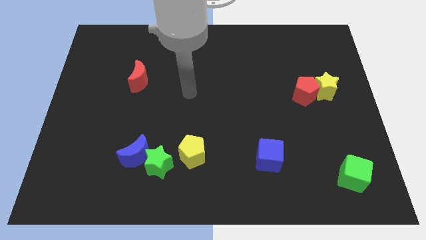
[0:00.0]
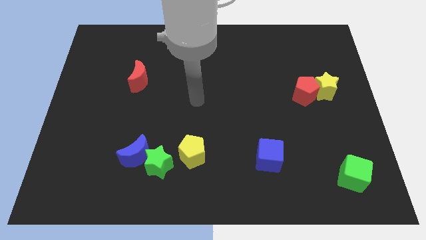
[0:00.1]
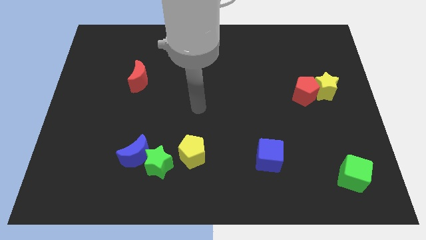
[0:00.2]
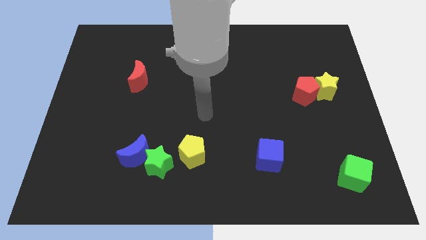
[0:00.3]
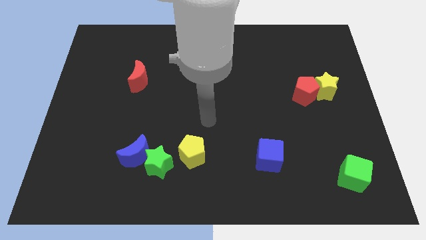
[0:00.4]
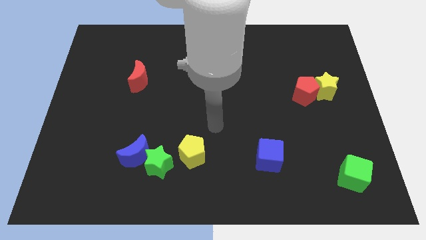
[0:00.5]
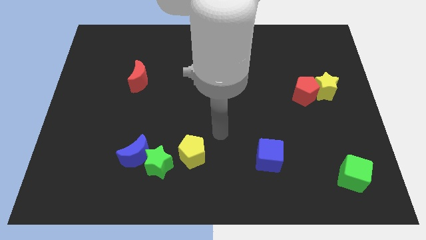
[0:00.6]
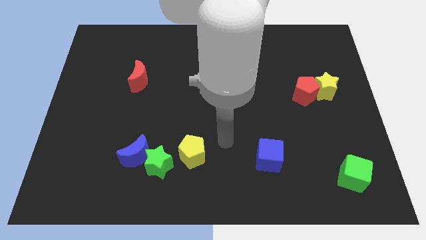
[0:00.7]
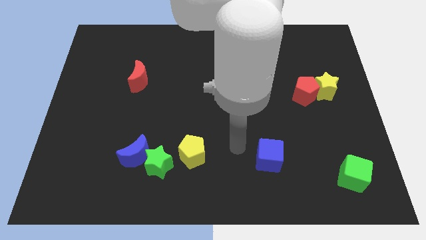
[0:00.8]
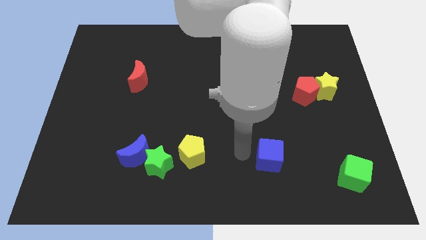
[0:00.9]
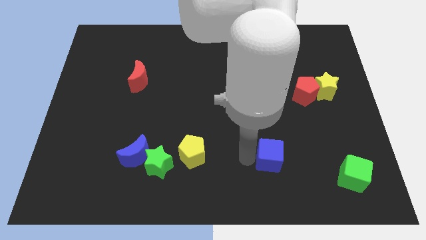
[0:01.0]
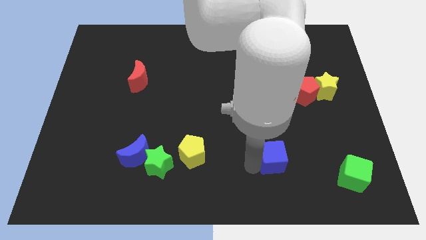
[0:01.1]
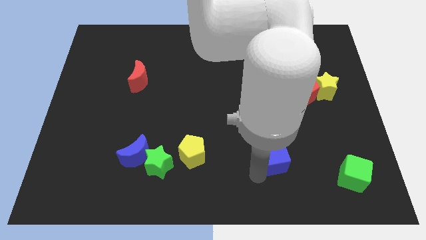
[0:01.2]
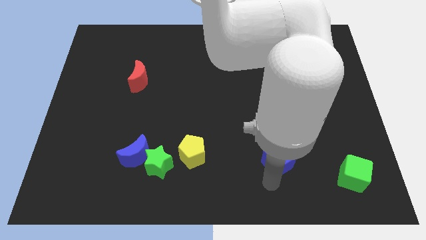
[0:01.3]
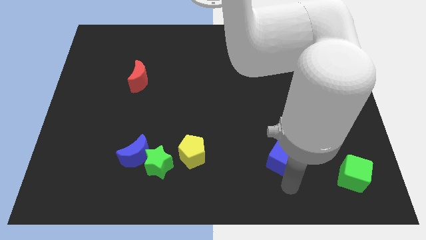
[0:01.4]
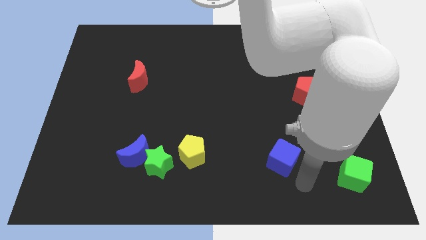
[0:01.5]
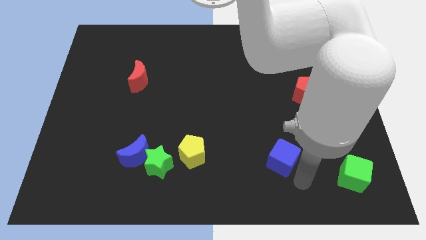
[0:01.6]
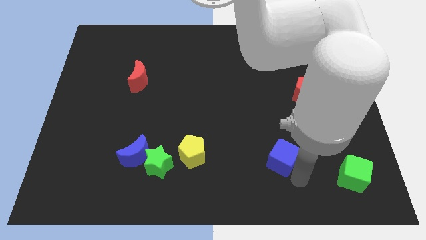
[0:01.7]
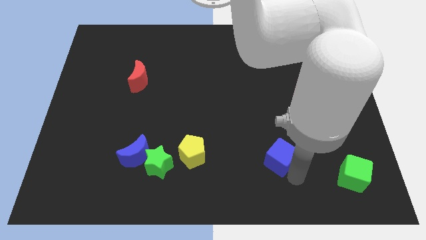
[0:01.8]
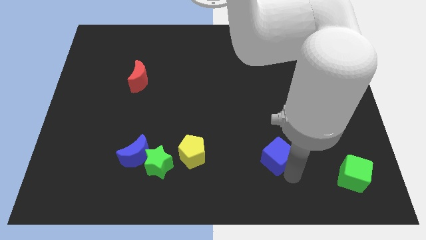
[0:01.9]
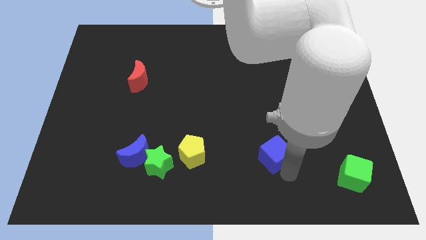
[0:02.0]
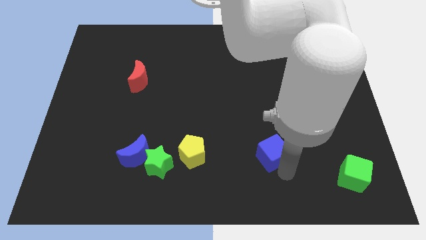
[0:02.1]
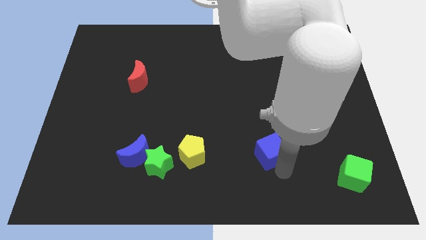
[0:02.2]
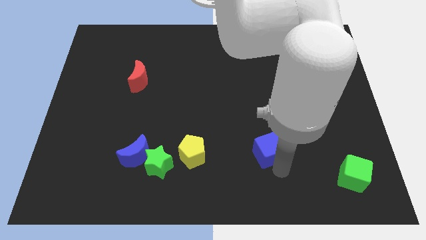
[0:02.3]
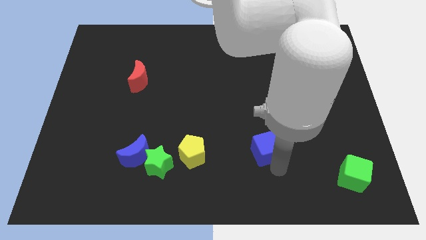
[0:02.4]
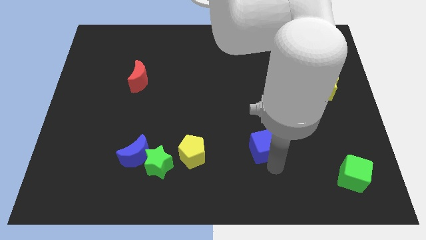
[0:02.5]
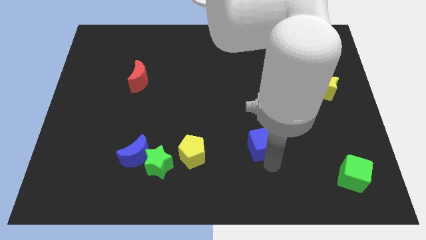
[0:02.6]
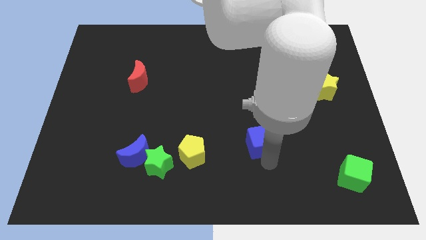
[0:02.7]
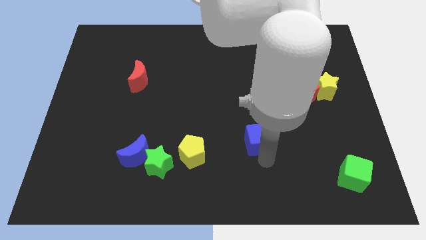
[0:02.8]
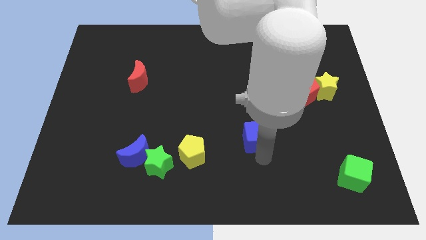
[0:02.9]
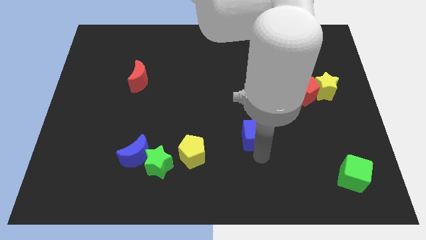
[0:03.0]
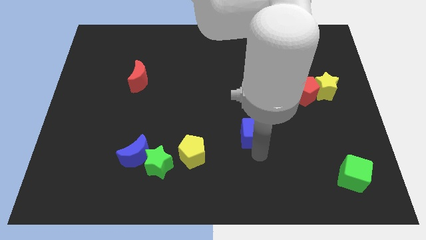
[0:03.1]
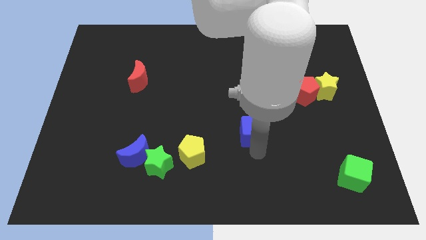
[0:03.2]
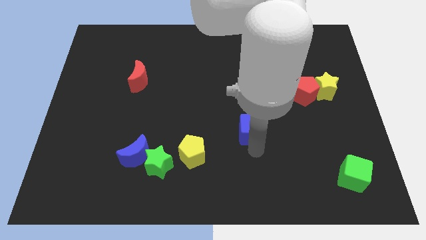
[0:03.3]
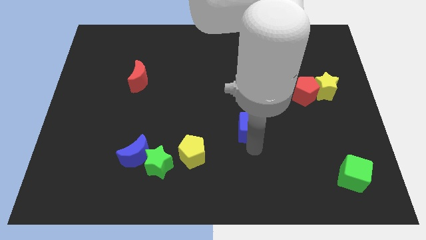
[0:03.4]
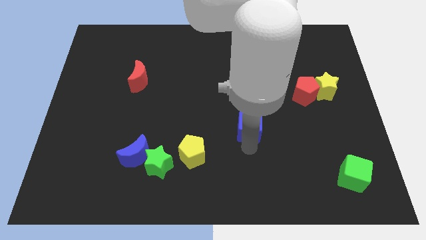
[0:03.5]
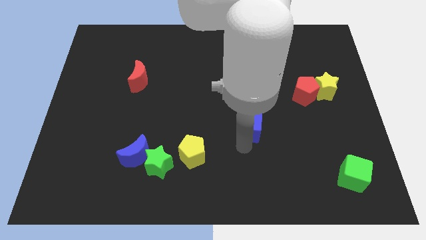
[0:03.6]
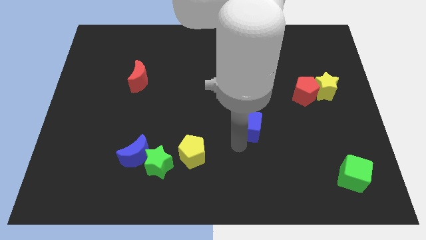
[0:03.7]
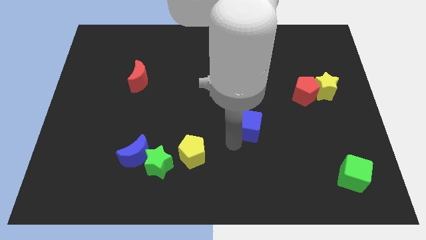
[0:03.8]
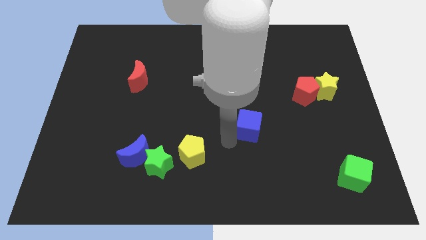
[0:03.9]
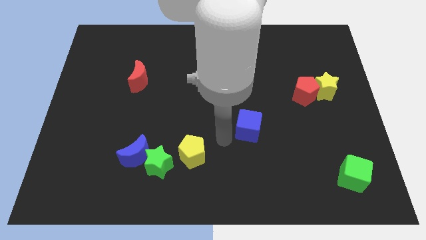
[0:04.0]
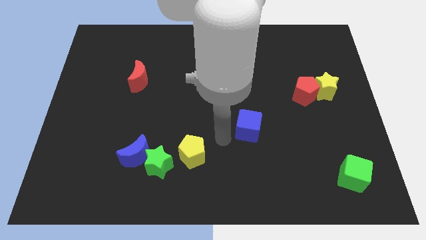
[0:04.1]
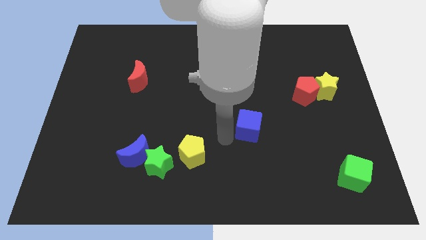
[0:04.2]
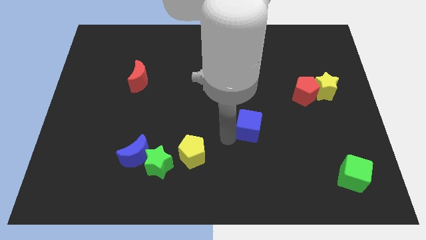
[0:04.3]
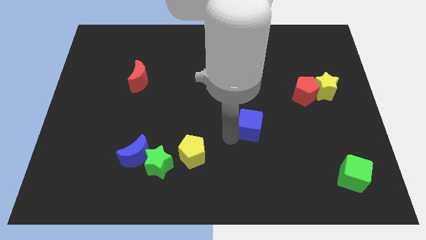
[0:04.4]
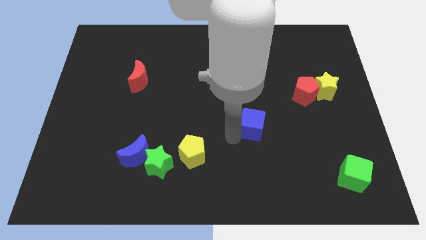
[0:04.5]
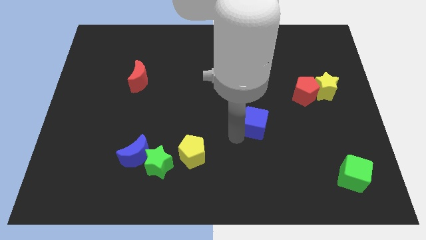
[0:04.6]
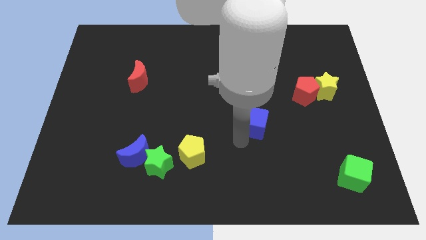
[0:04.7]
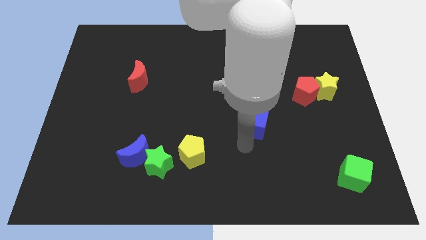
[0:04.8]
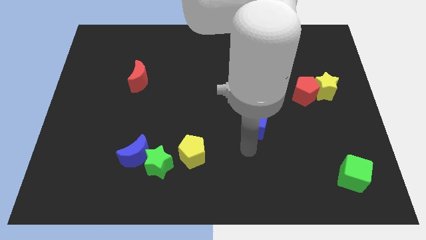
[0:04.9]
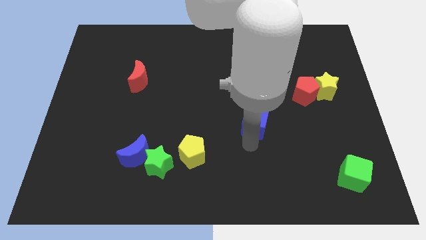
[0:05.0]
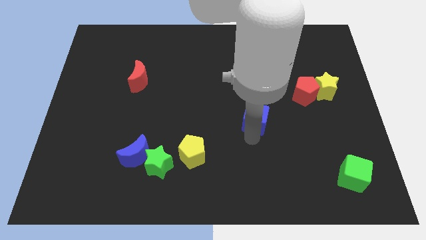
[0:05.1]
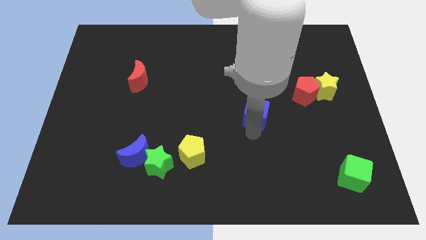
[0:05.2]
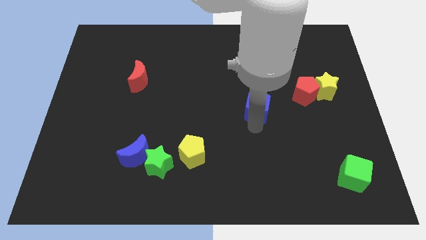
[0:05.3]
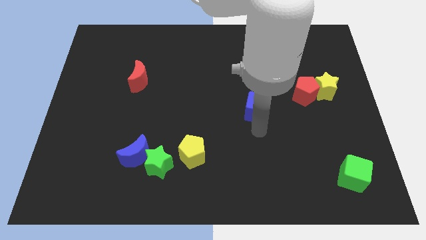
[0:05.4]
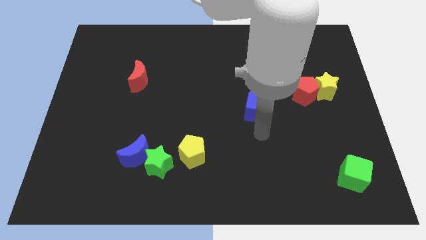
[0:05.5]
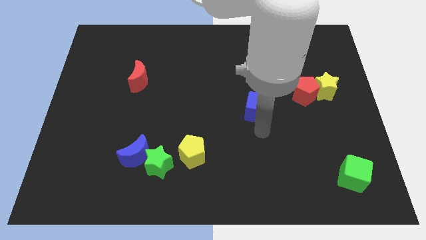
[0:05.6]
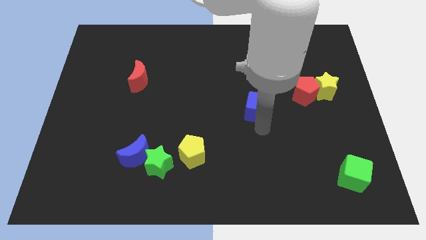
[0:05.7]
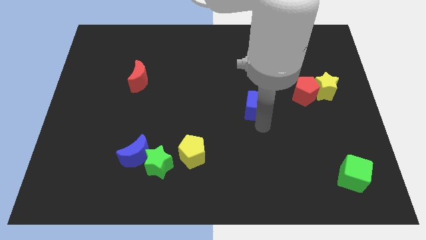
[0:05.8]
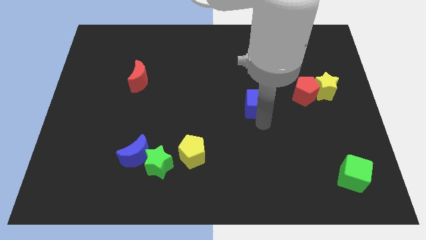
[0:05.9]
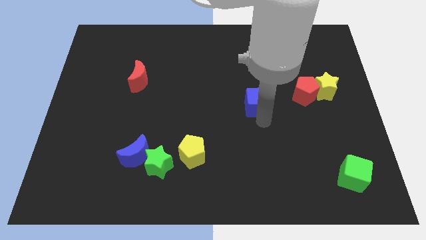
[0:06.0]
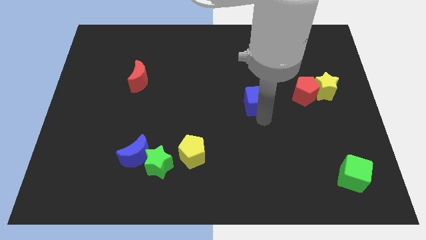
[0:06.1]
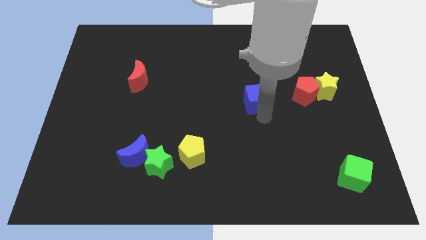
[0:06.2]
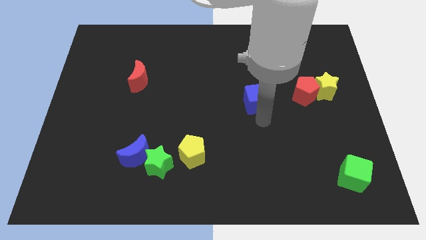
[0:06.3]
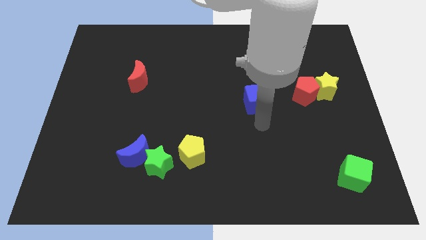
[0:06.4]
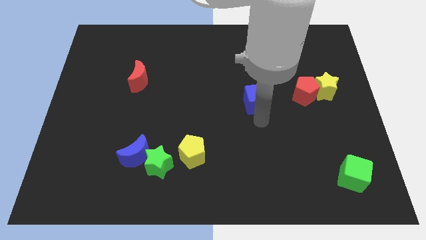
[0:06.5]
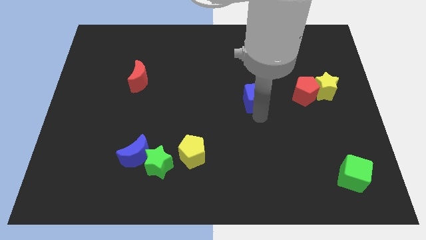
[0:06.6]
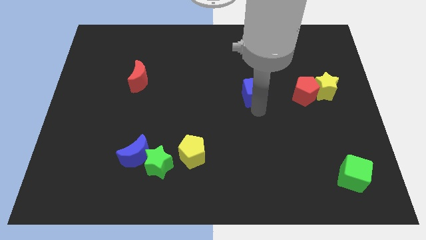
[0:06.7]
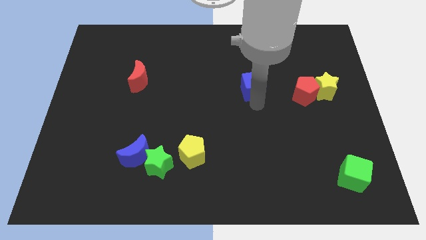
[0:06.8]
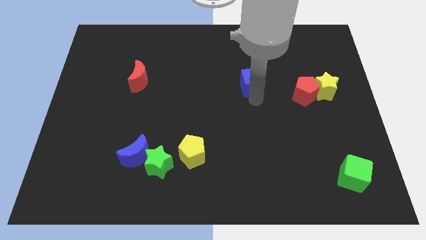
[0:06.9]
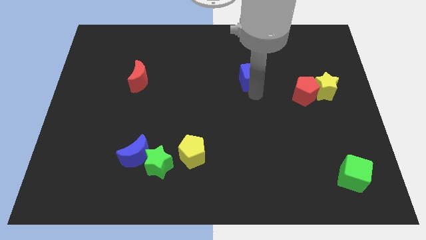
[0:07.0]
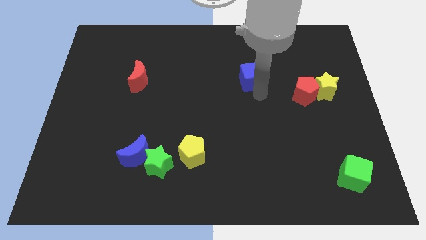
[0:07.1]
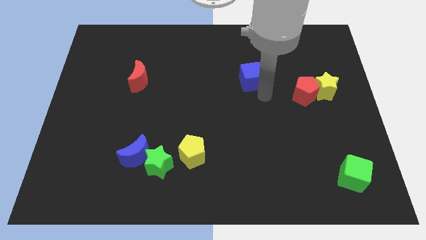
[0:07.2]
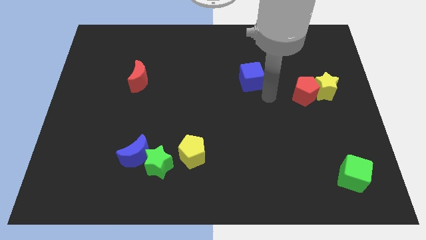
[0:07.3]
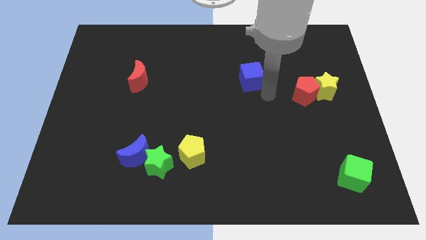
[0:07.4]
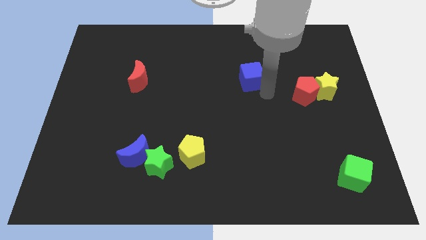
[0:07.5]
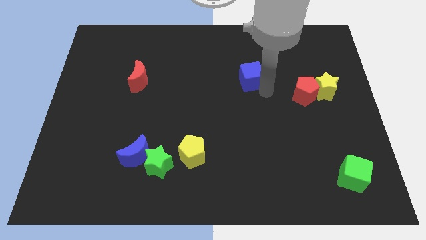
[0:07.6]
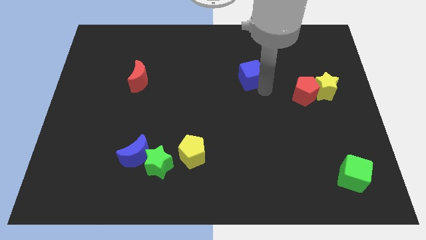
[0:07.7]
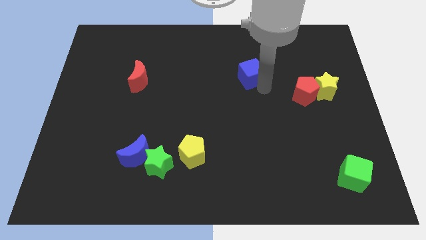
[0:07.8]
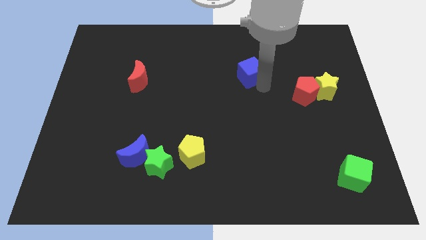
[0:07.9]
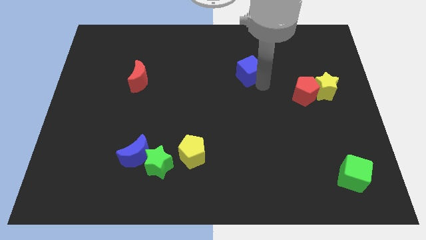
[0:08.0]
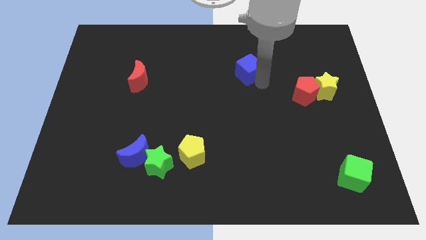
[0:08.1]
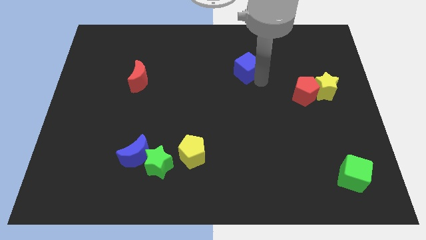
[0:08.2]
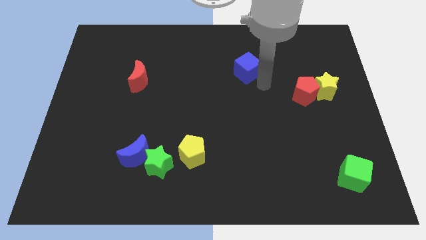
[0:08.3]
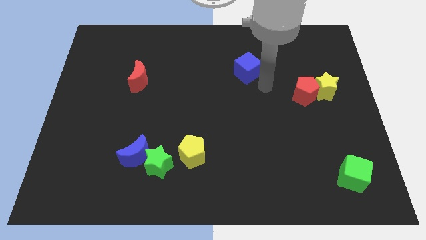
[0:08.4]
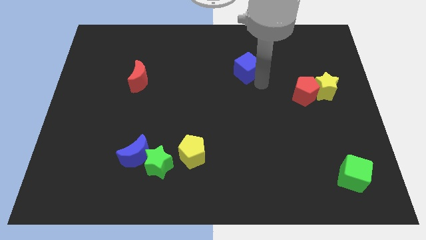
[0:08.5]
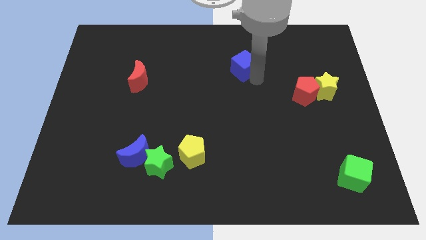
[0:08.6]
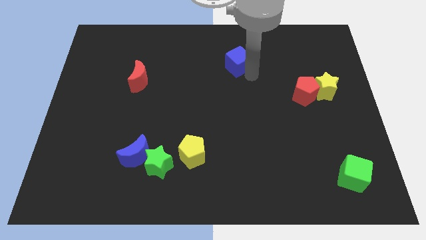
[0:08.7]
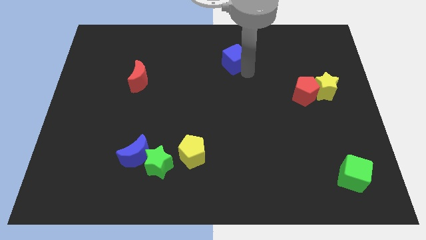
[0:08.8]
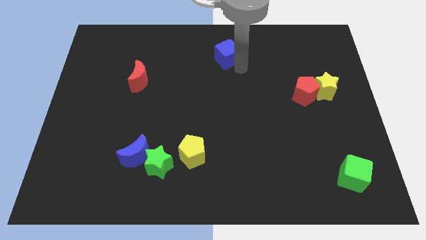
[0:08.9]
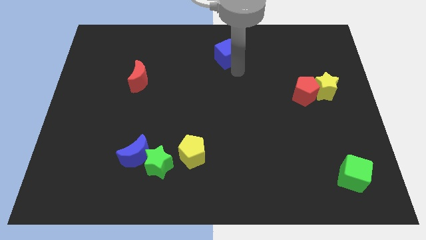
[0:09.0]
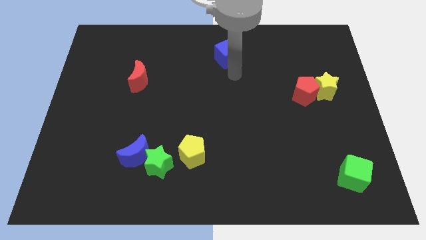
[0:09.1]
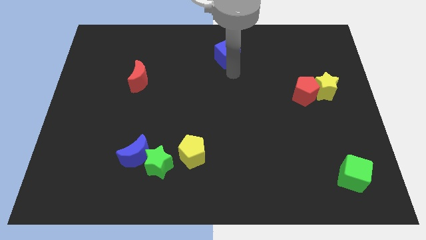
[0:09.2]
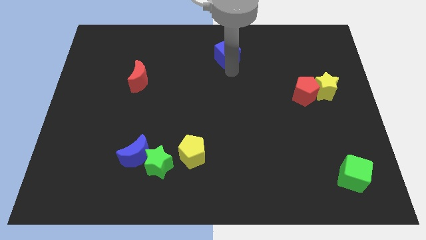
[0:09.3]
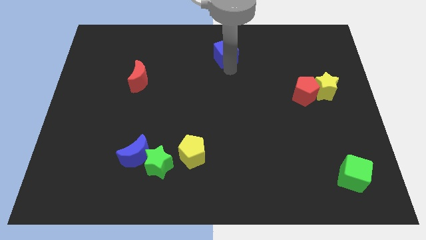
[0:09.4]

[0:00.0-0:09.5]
slide the blue cube to the top side
